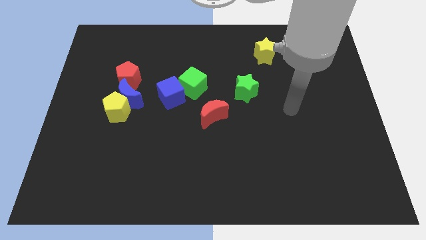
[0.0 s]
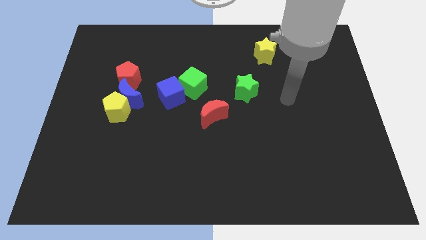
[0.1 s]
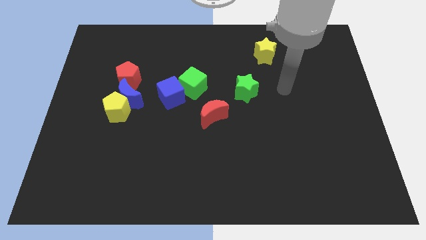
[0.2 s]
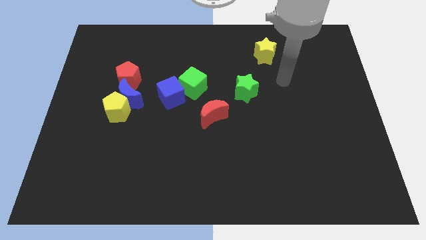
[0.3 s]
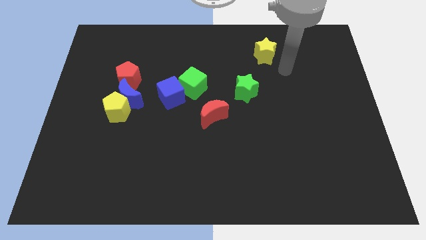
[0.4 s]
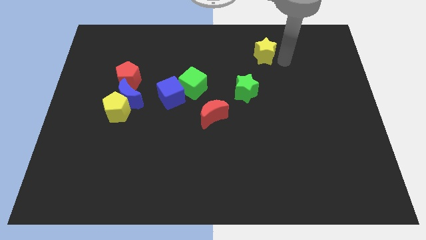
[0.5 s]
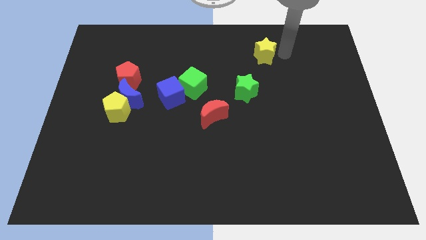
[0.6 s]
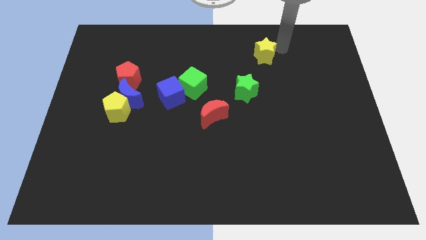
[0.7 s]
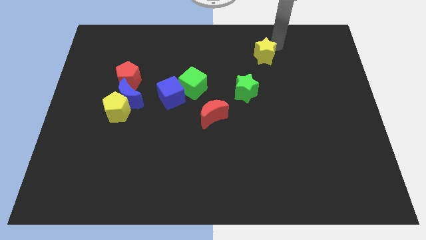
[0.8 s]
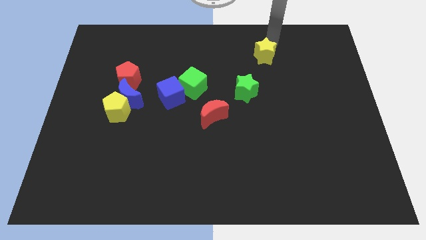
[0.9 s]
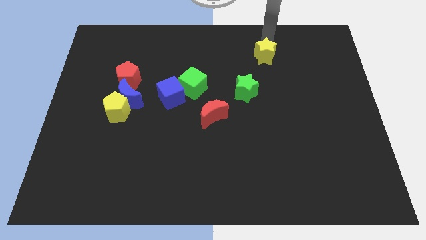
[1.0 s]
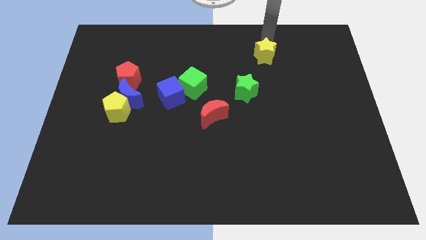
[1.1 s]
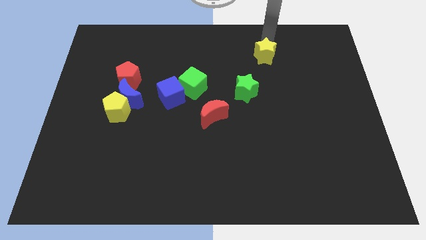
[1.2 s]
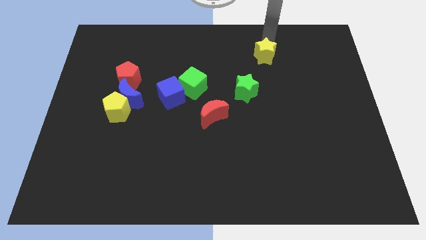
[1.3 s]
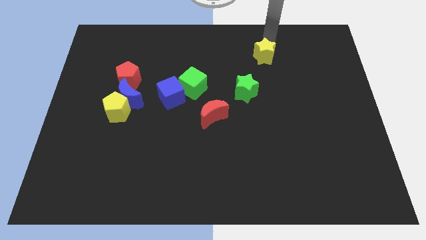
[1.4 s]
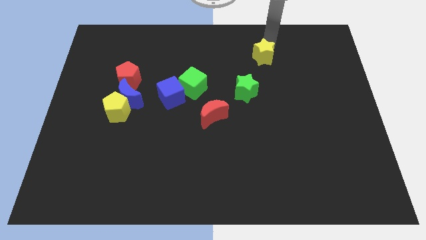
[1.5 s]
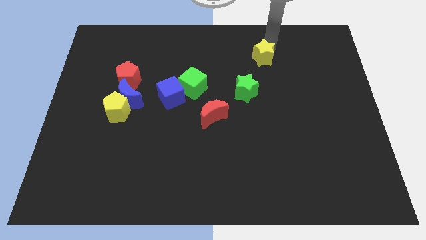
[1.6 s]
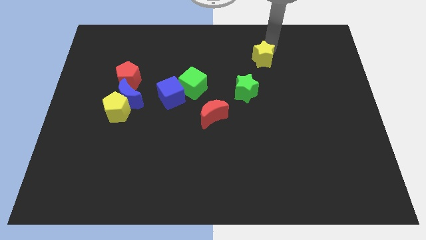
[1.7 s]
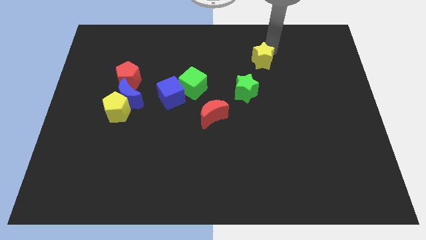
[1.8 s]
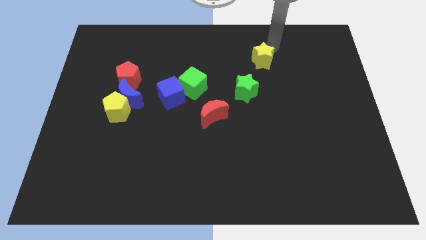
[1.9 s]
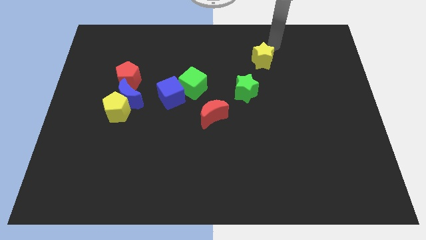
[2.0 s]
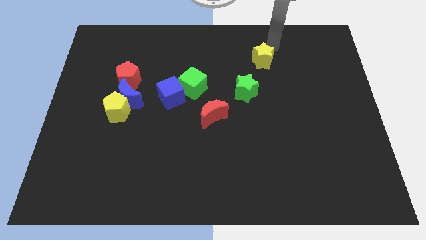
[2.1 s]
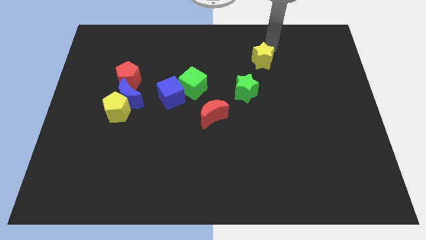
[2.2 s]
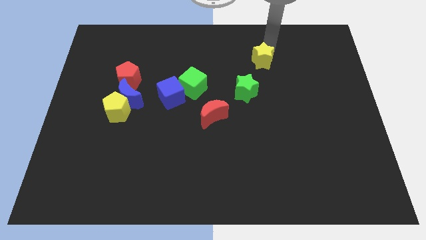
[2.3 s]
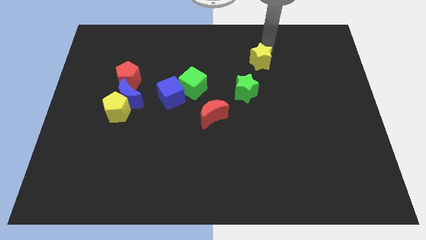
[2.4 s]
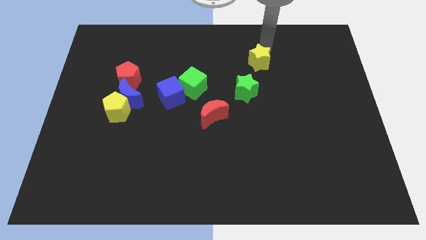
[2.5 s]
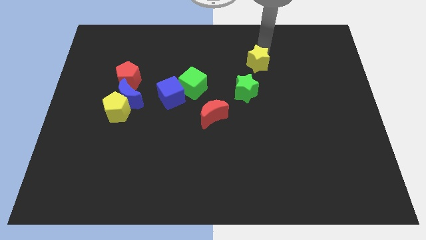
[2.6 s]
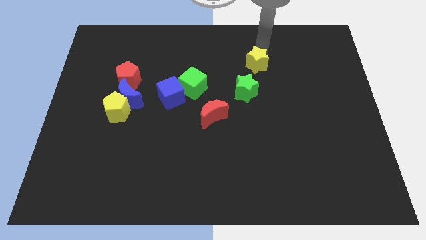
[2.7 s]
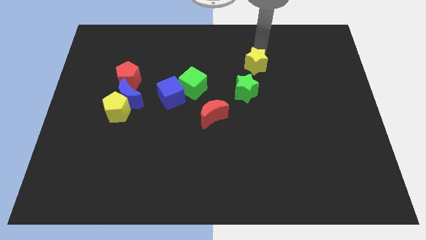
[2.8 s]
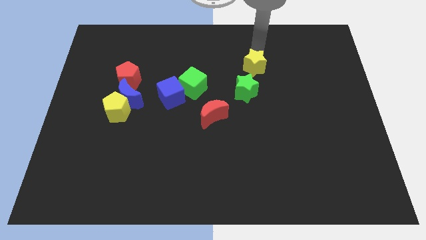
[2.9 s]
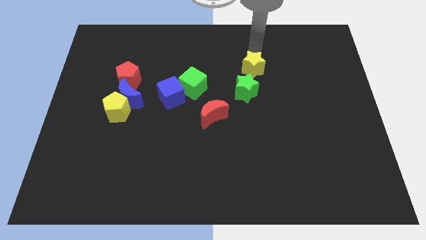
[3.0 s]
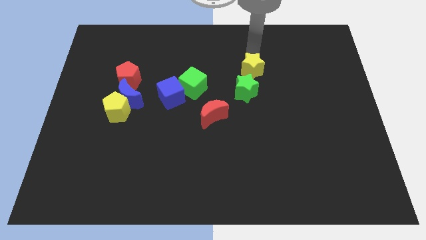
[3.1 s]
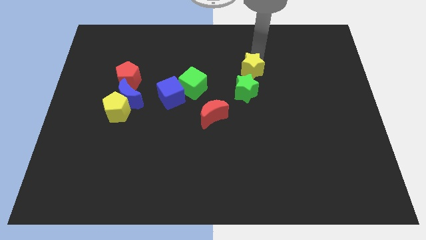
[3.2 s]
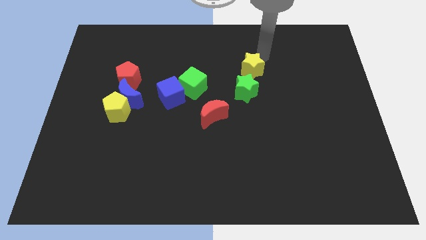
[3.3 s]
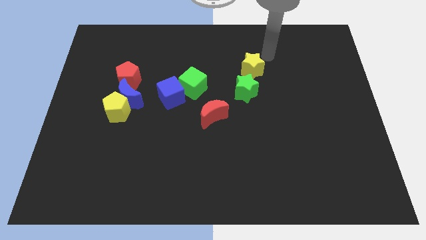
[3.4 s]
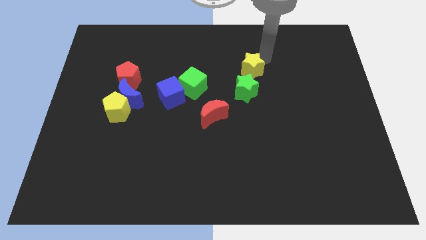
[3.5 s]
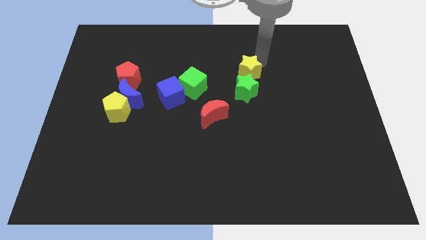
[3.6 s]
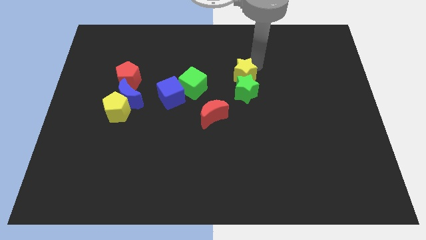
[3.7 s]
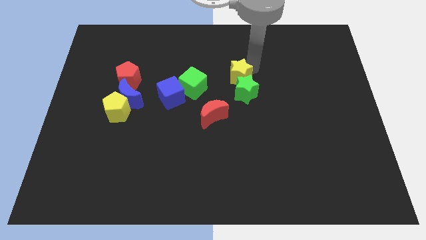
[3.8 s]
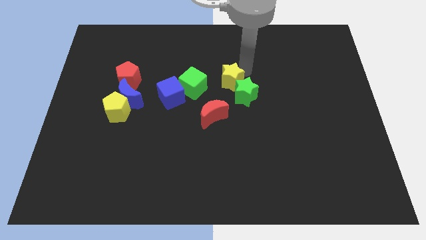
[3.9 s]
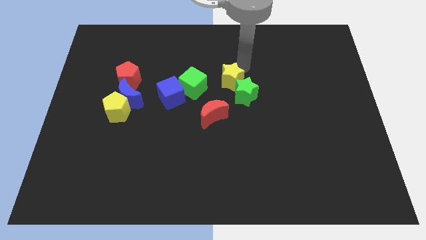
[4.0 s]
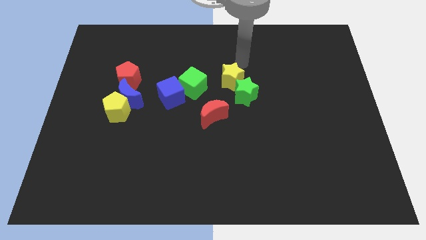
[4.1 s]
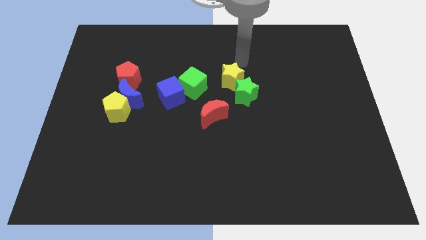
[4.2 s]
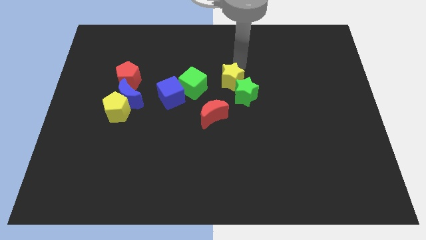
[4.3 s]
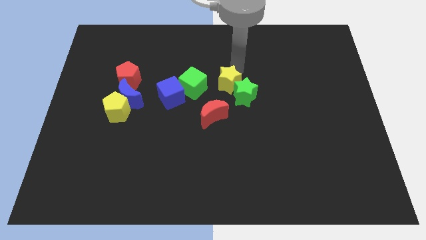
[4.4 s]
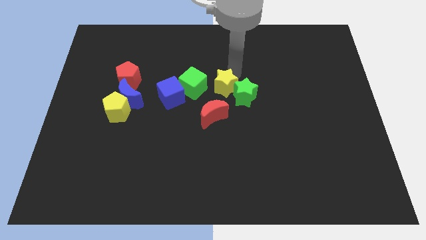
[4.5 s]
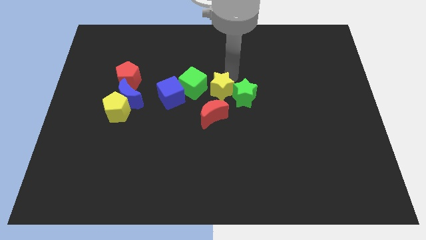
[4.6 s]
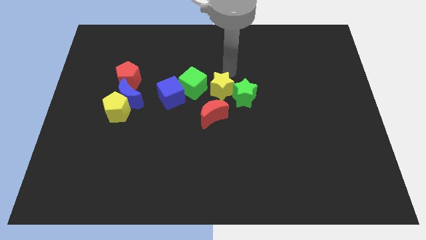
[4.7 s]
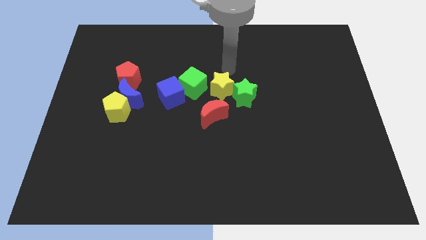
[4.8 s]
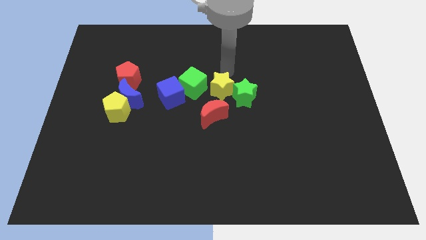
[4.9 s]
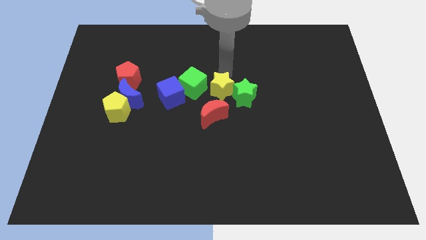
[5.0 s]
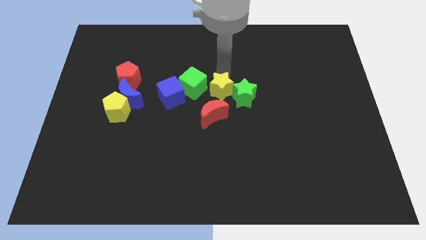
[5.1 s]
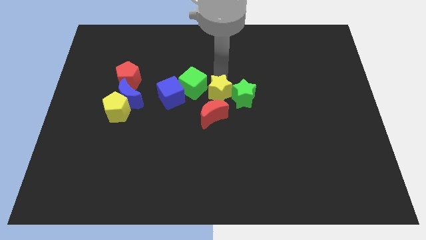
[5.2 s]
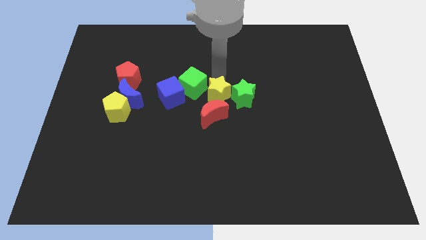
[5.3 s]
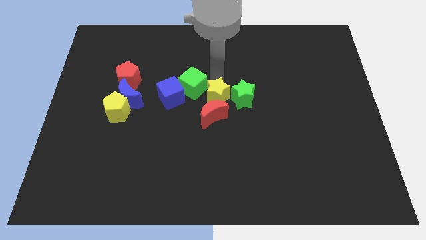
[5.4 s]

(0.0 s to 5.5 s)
move the yellow star towards the red moon

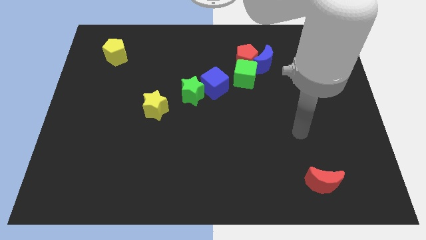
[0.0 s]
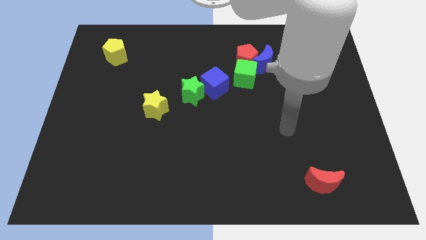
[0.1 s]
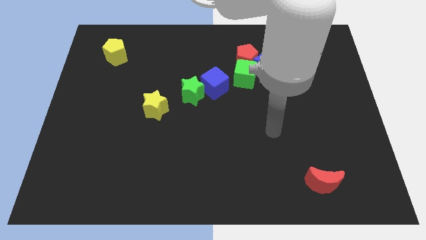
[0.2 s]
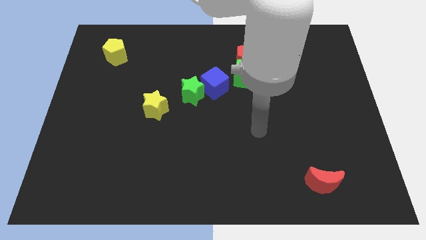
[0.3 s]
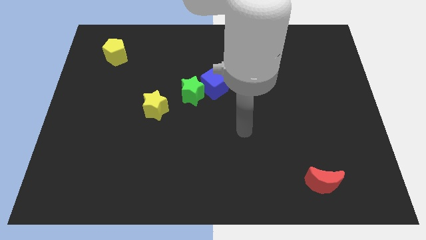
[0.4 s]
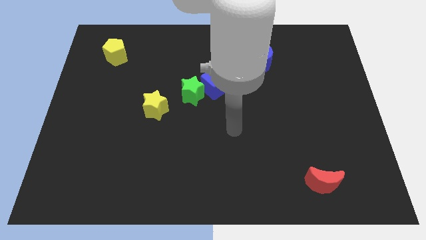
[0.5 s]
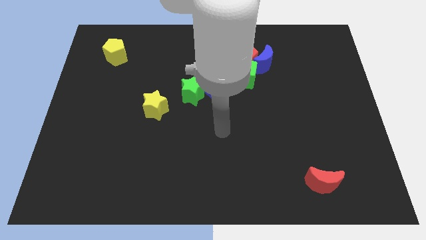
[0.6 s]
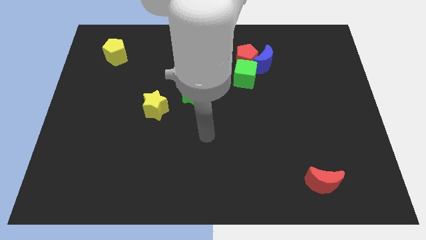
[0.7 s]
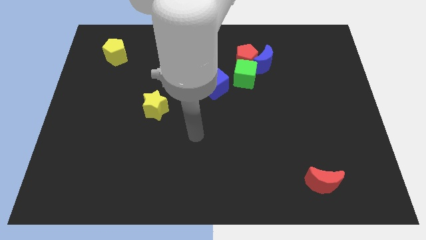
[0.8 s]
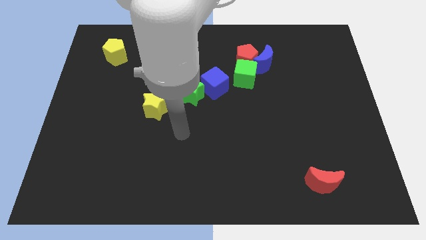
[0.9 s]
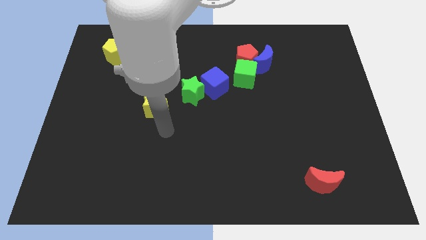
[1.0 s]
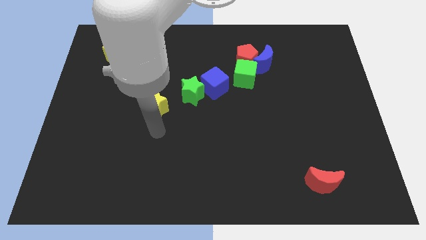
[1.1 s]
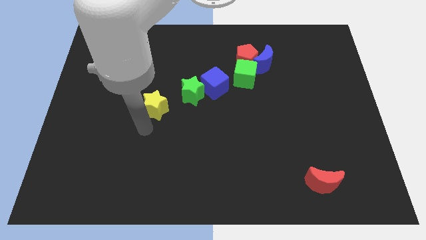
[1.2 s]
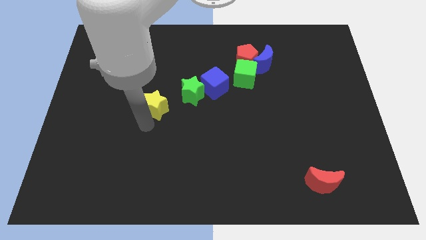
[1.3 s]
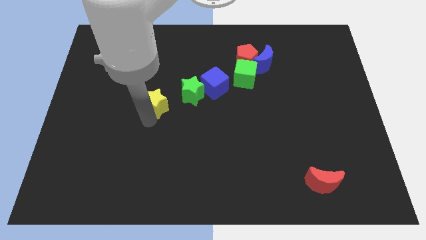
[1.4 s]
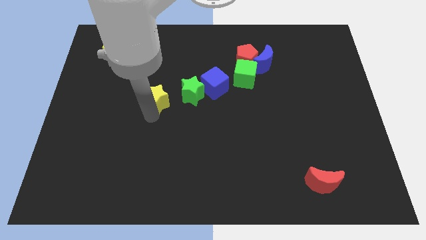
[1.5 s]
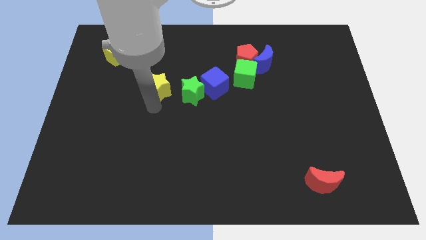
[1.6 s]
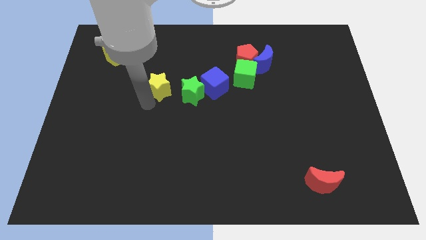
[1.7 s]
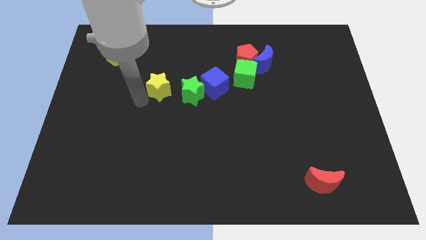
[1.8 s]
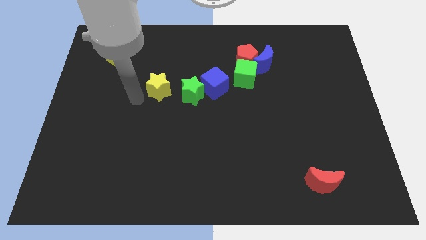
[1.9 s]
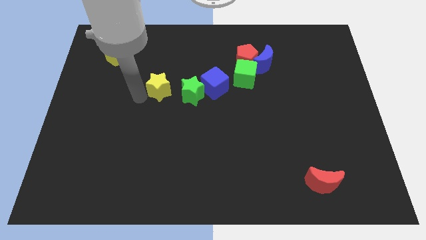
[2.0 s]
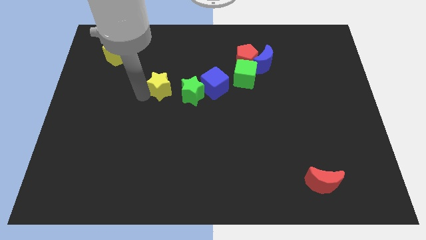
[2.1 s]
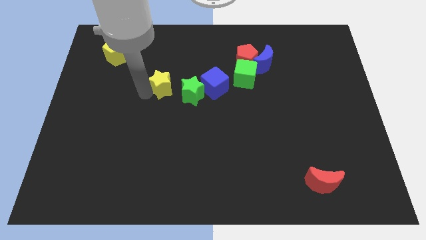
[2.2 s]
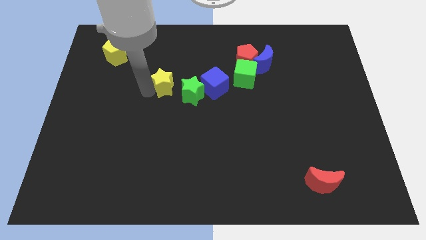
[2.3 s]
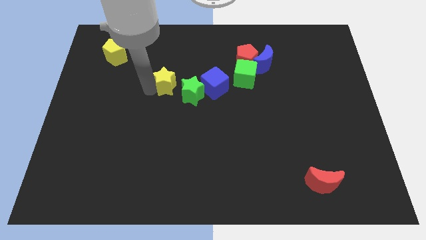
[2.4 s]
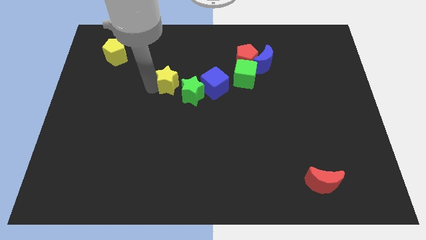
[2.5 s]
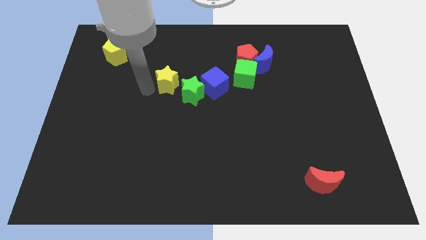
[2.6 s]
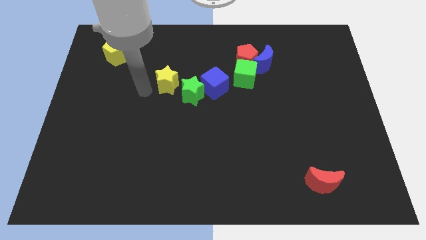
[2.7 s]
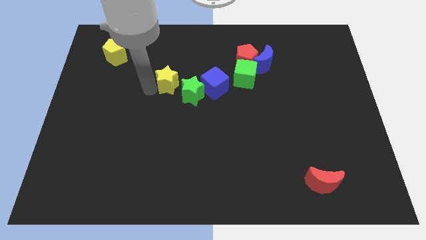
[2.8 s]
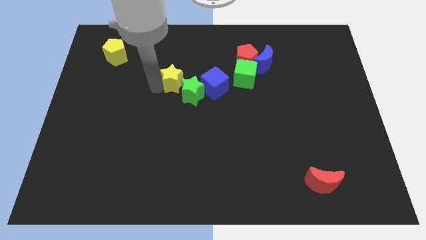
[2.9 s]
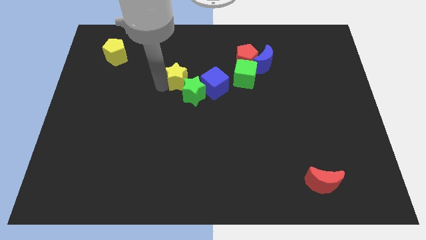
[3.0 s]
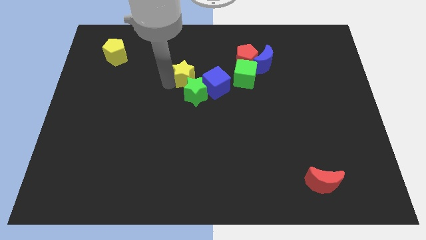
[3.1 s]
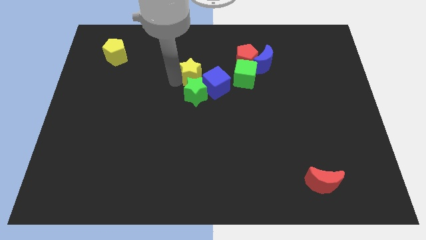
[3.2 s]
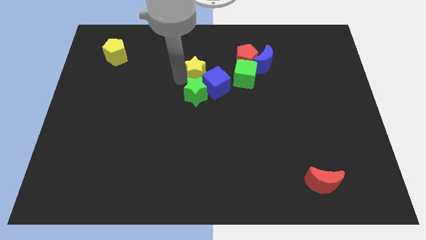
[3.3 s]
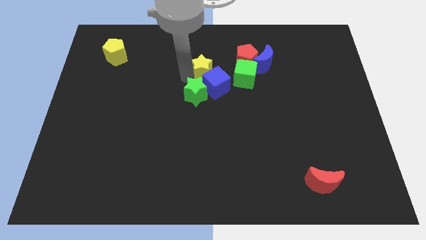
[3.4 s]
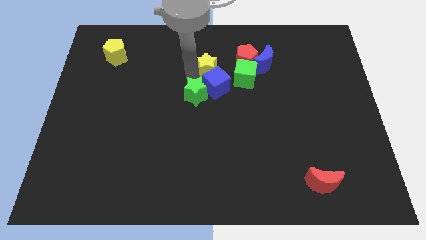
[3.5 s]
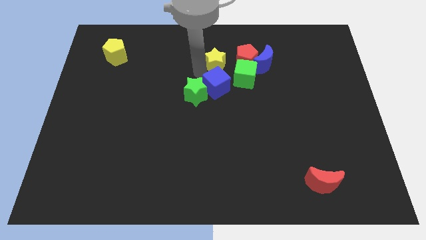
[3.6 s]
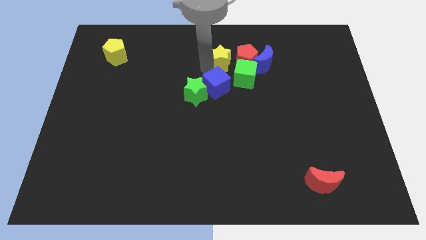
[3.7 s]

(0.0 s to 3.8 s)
slide the yellow star close to the red pentagon
